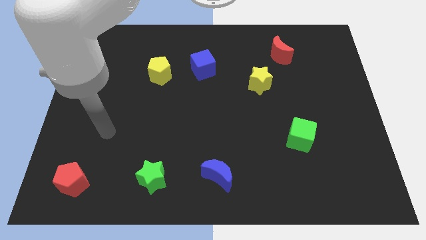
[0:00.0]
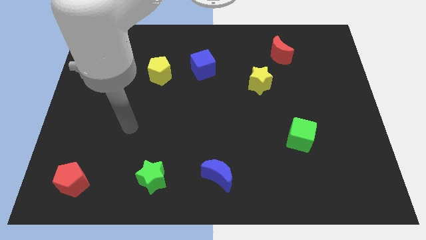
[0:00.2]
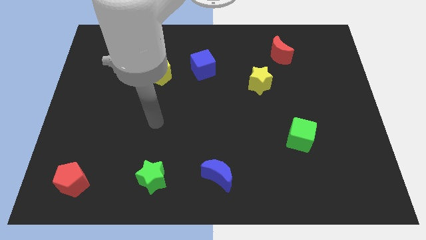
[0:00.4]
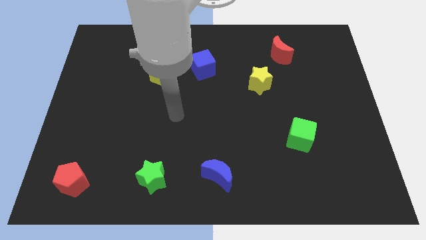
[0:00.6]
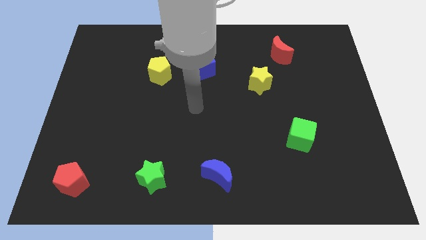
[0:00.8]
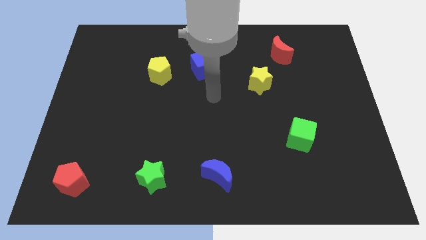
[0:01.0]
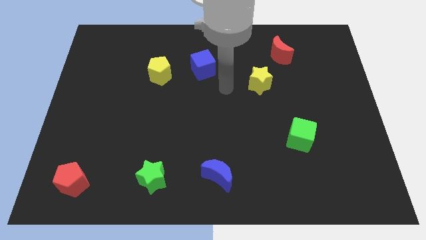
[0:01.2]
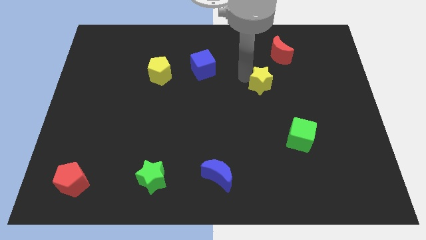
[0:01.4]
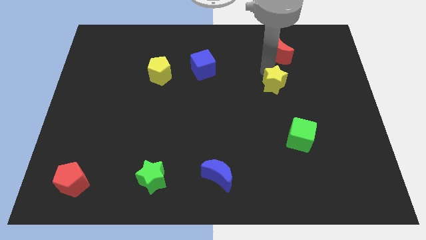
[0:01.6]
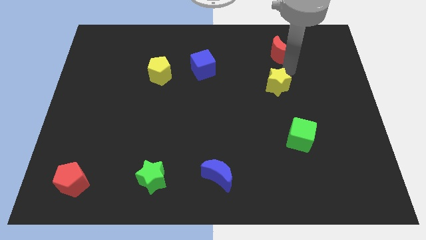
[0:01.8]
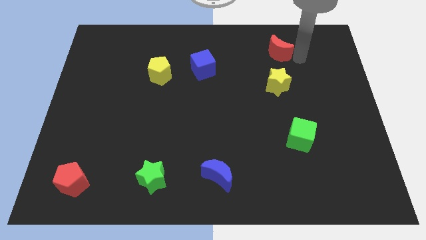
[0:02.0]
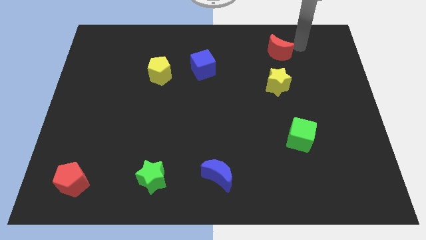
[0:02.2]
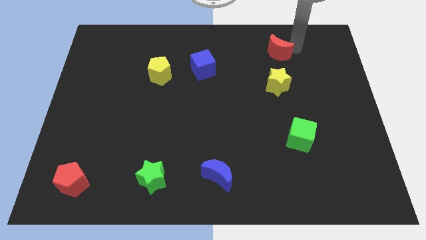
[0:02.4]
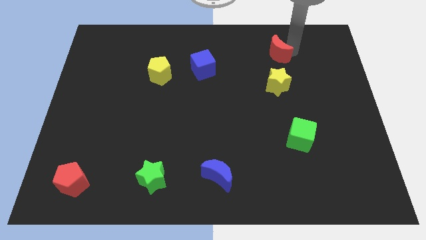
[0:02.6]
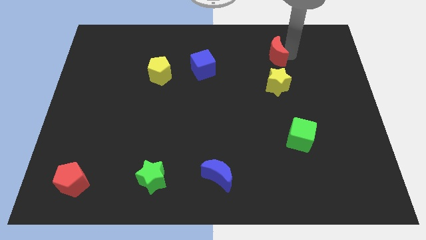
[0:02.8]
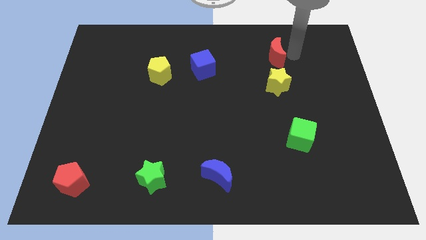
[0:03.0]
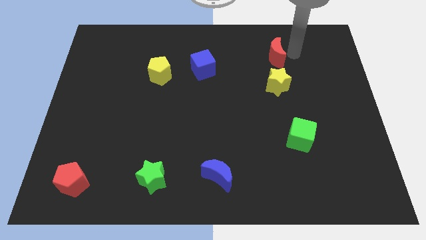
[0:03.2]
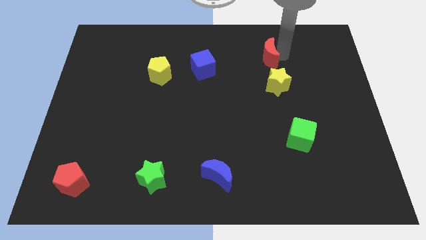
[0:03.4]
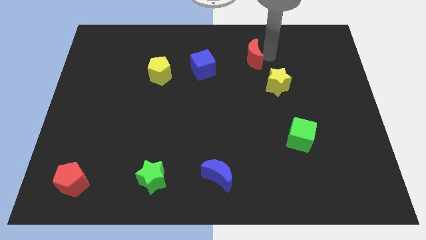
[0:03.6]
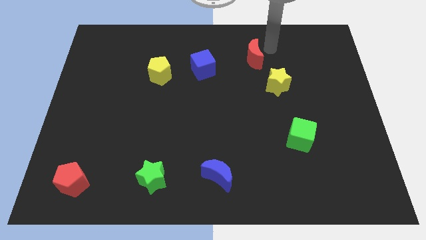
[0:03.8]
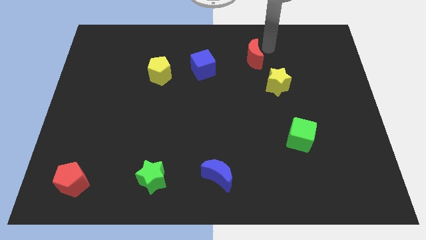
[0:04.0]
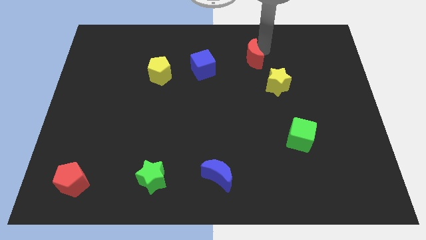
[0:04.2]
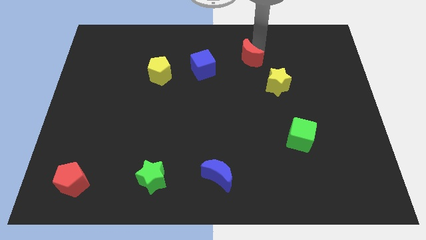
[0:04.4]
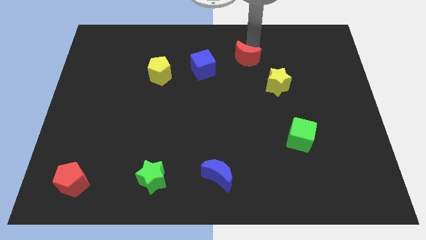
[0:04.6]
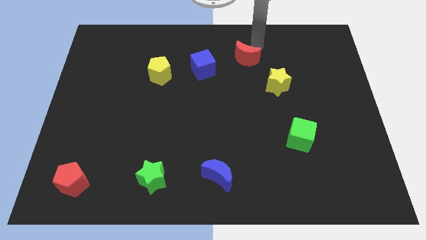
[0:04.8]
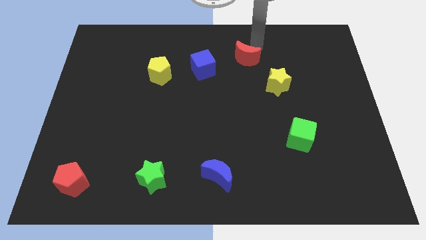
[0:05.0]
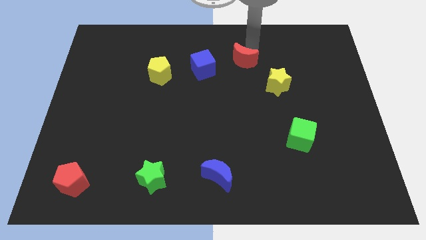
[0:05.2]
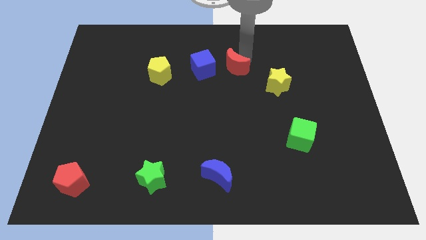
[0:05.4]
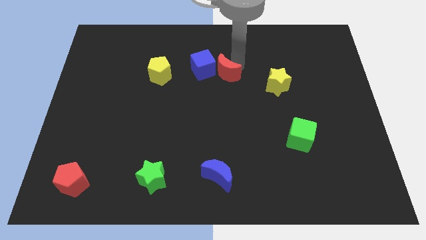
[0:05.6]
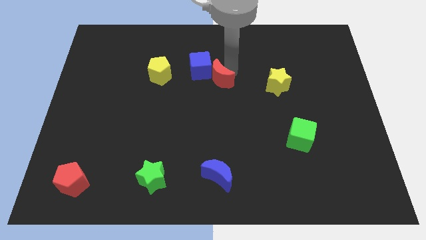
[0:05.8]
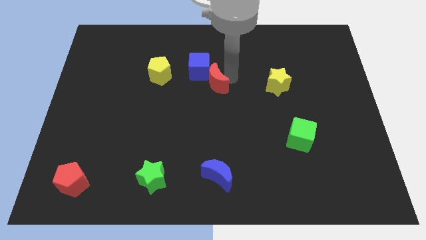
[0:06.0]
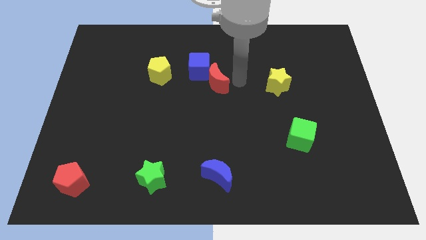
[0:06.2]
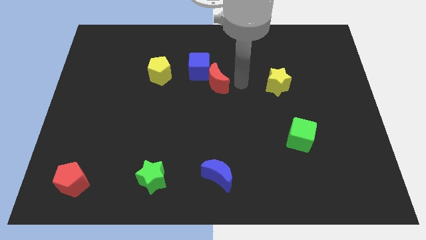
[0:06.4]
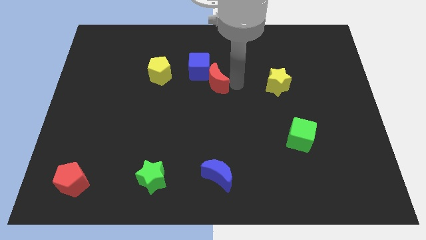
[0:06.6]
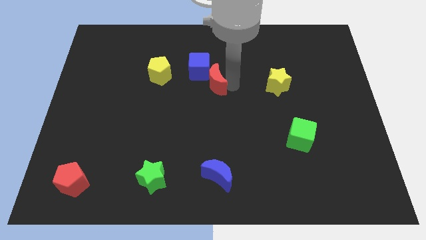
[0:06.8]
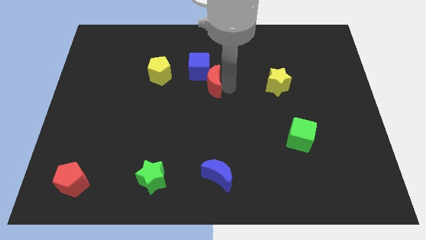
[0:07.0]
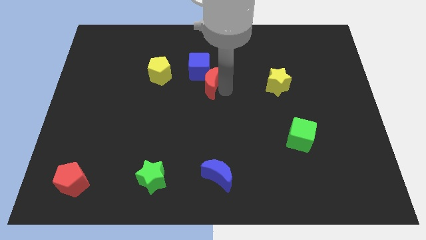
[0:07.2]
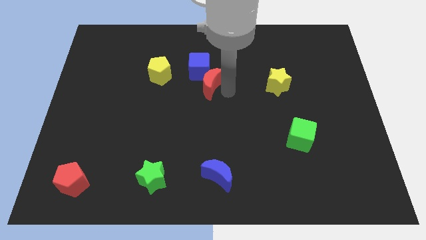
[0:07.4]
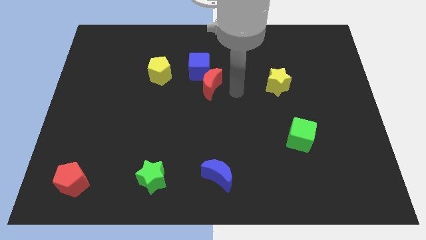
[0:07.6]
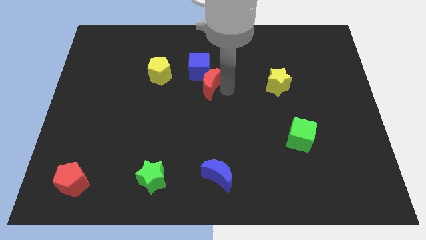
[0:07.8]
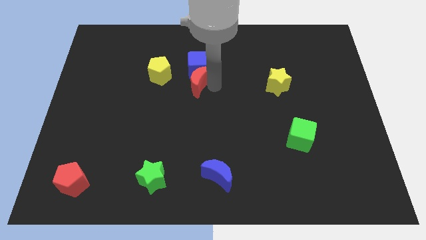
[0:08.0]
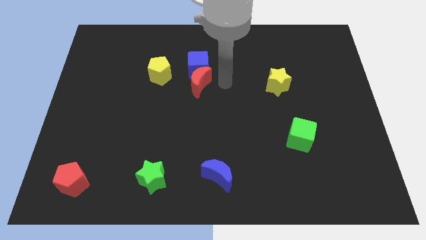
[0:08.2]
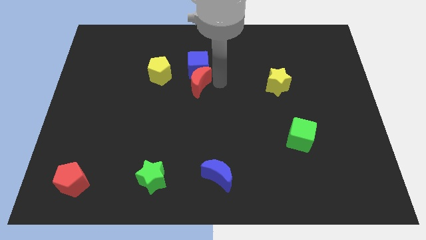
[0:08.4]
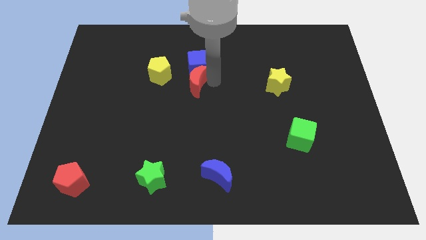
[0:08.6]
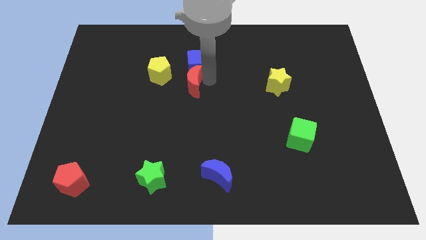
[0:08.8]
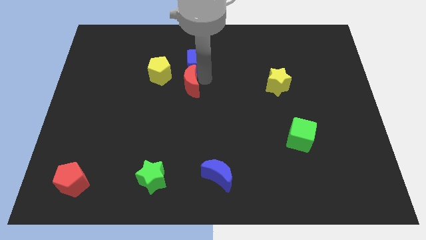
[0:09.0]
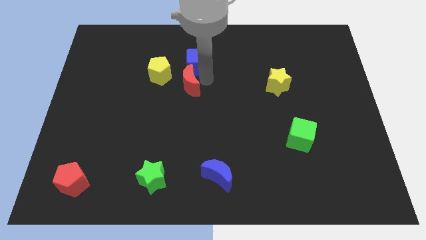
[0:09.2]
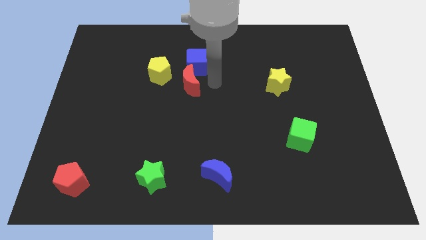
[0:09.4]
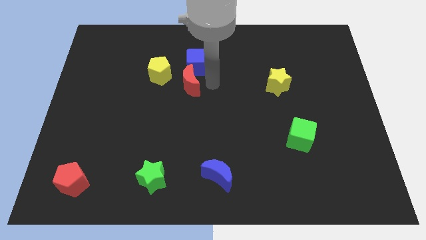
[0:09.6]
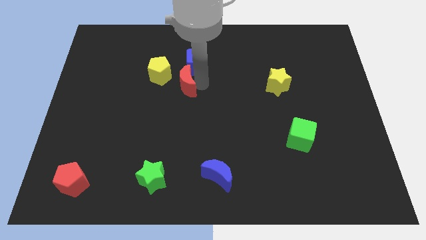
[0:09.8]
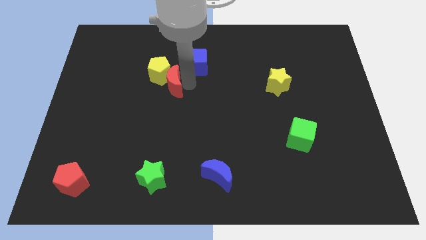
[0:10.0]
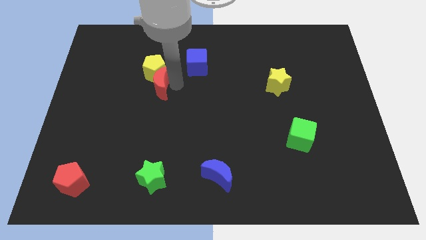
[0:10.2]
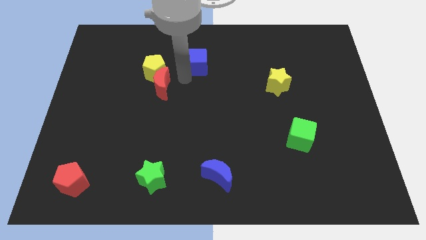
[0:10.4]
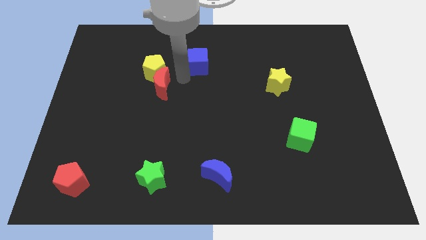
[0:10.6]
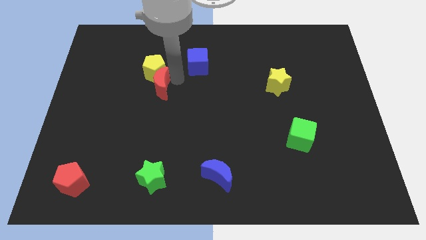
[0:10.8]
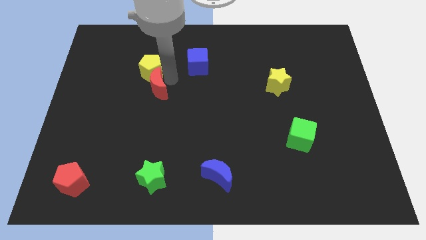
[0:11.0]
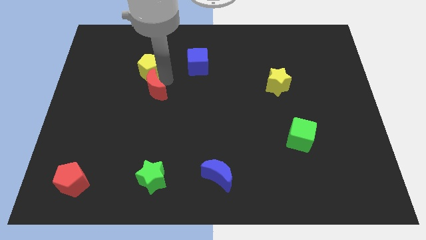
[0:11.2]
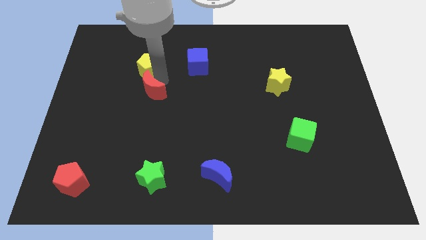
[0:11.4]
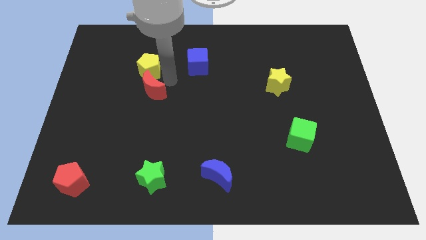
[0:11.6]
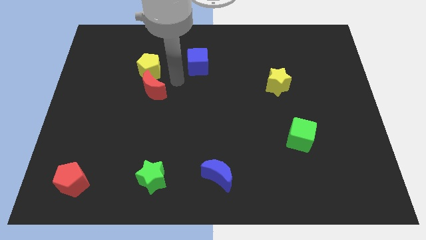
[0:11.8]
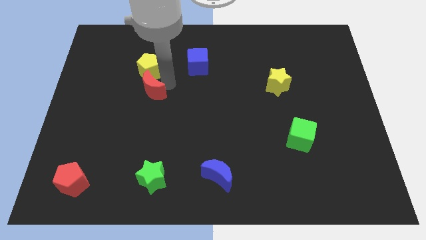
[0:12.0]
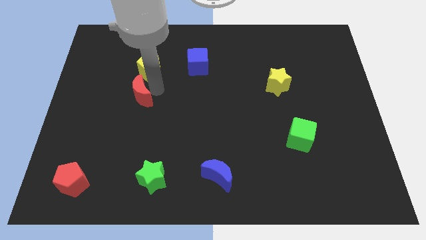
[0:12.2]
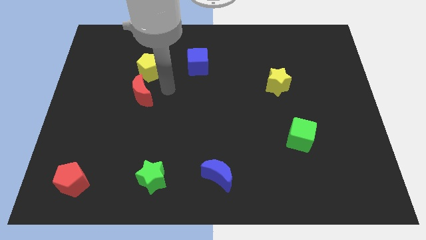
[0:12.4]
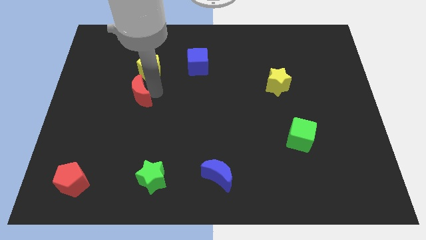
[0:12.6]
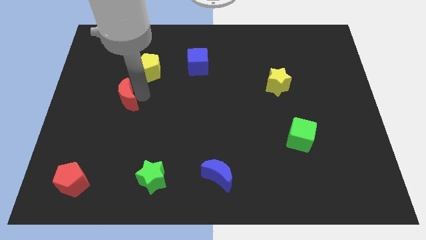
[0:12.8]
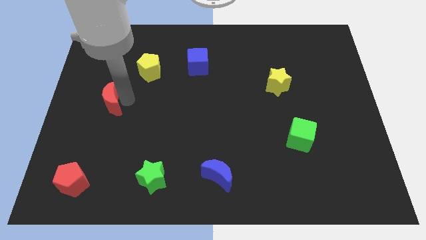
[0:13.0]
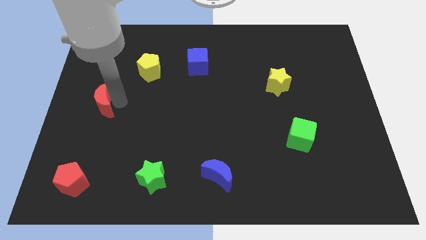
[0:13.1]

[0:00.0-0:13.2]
slide the red moon to the left side
